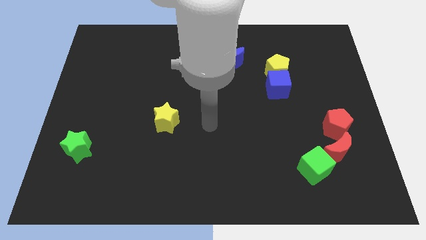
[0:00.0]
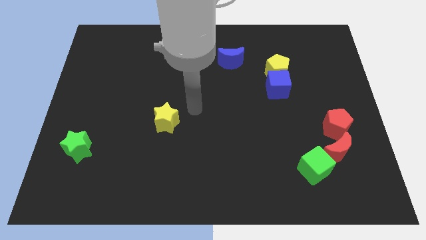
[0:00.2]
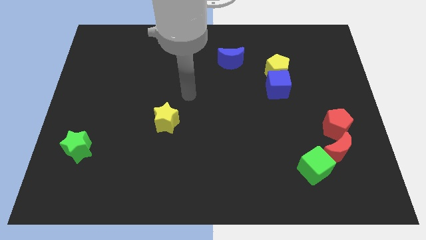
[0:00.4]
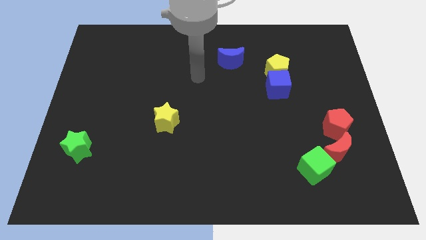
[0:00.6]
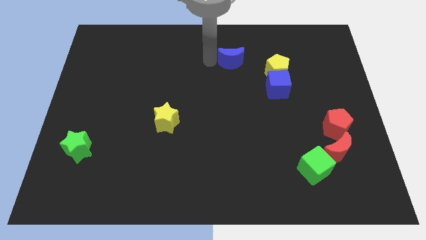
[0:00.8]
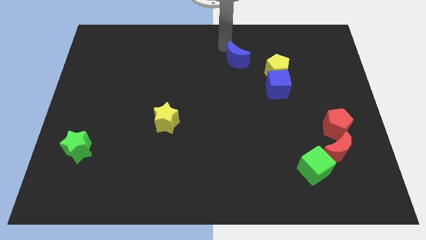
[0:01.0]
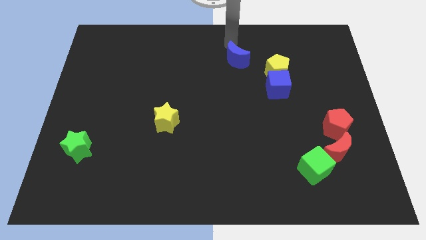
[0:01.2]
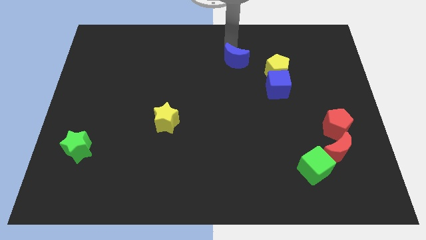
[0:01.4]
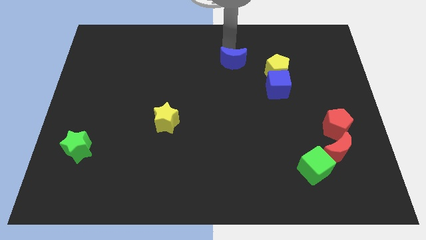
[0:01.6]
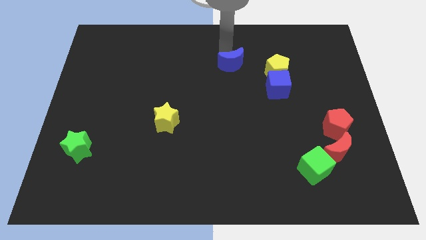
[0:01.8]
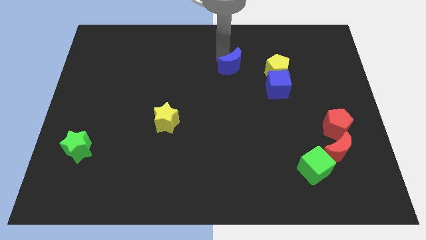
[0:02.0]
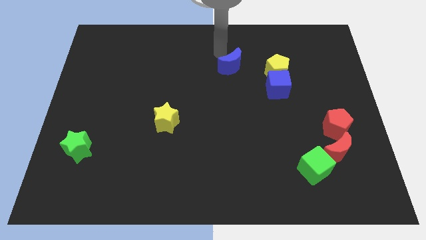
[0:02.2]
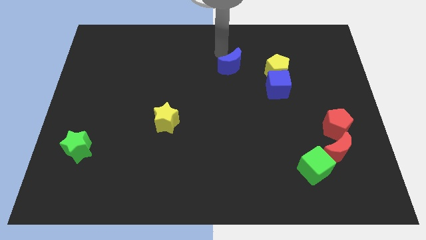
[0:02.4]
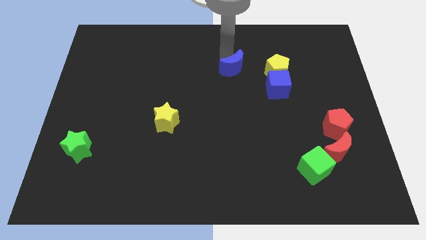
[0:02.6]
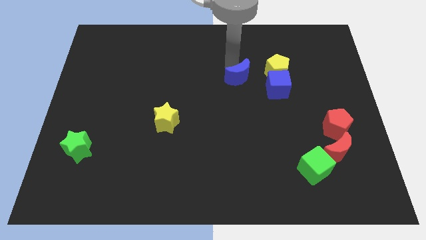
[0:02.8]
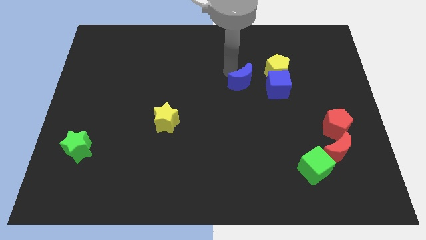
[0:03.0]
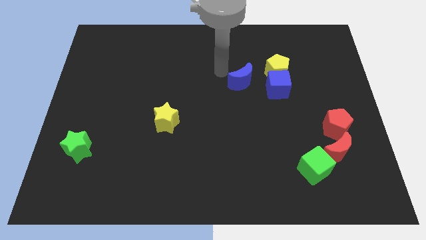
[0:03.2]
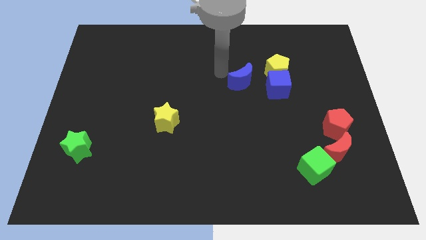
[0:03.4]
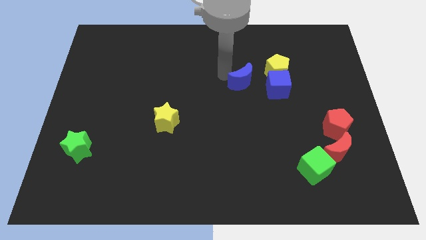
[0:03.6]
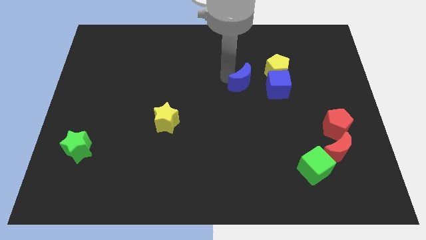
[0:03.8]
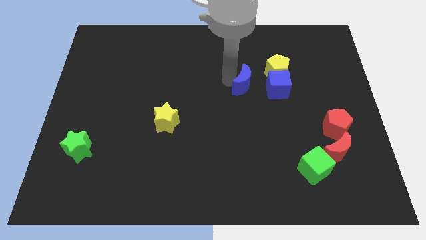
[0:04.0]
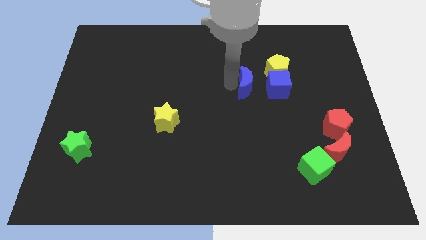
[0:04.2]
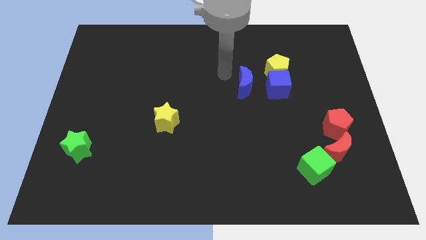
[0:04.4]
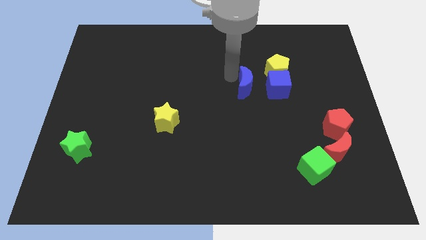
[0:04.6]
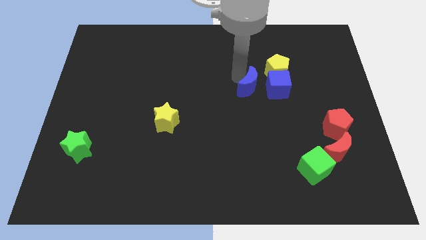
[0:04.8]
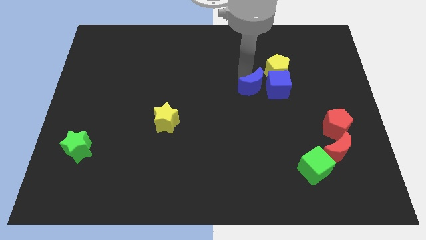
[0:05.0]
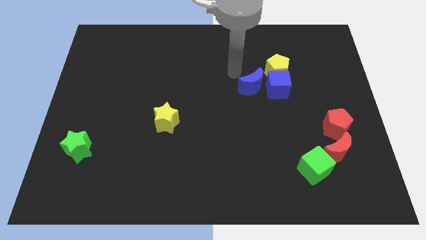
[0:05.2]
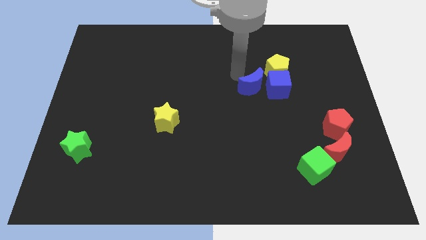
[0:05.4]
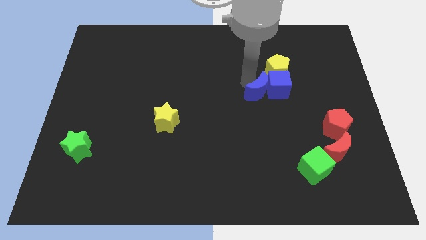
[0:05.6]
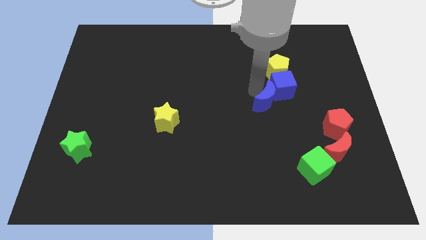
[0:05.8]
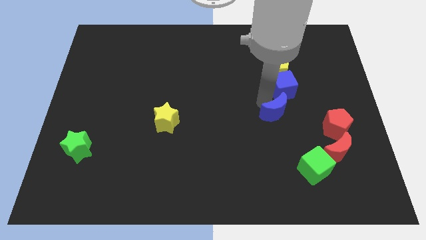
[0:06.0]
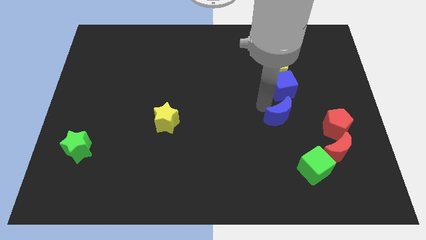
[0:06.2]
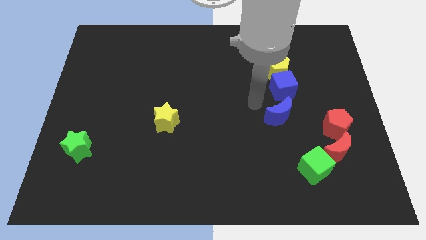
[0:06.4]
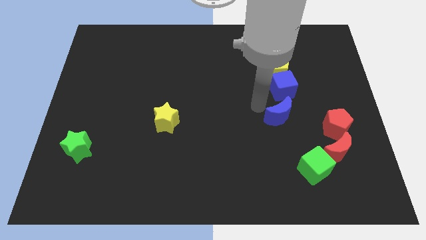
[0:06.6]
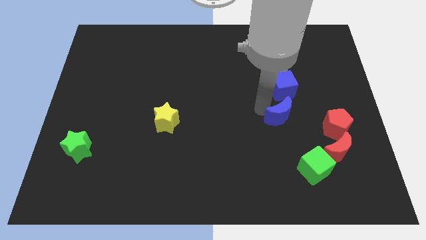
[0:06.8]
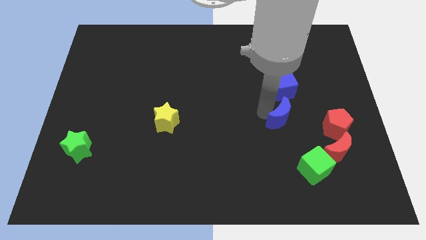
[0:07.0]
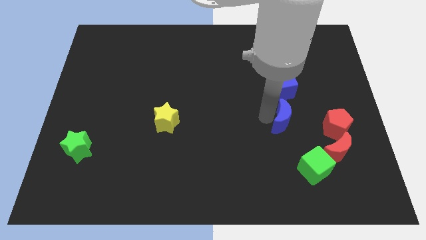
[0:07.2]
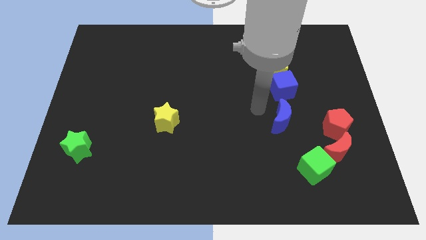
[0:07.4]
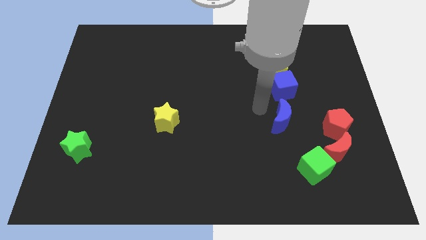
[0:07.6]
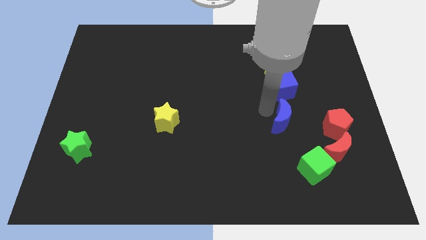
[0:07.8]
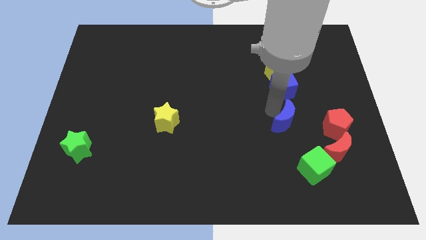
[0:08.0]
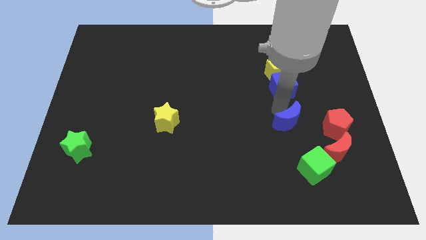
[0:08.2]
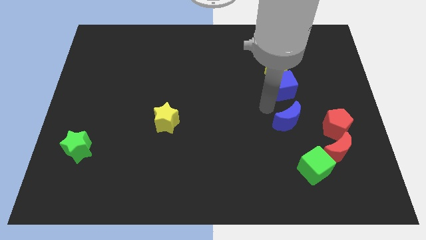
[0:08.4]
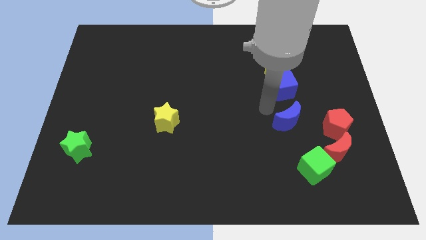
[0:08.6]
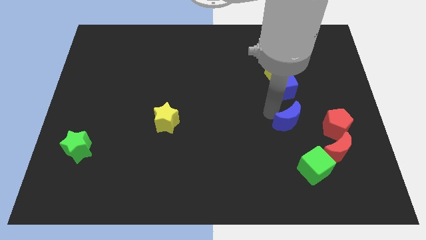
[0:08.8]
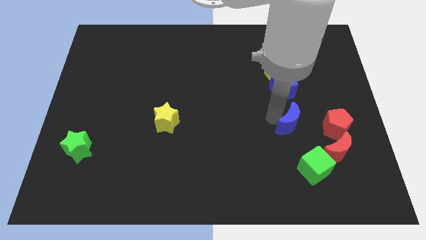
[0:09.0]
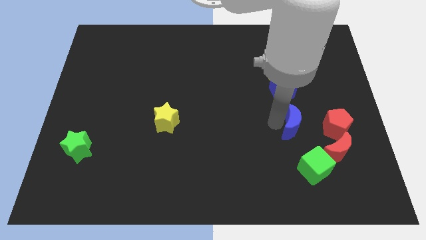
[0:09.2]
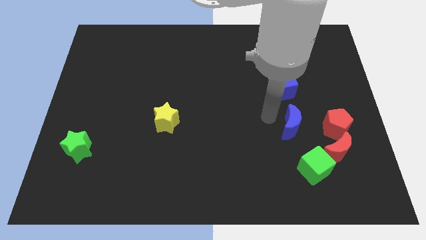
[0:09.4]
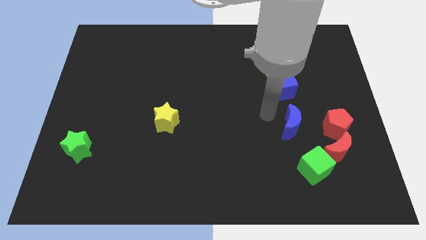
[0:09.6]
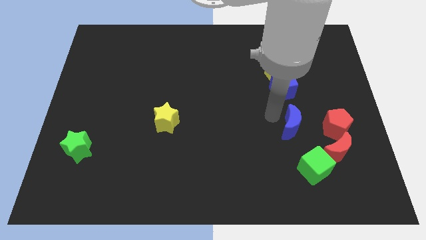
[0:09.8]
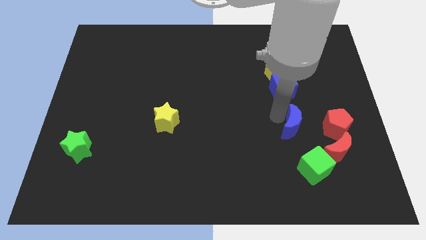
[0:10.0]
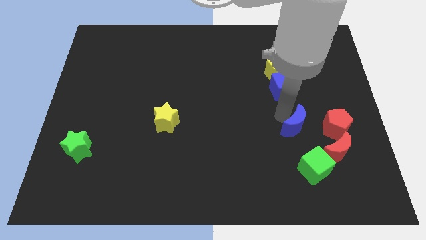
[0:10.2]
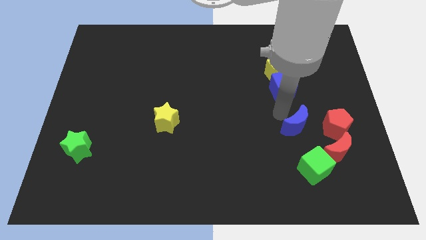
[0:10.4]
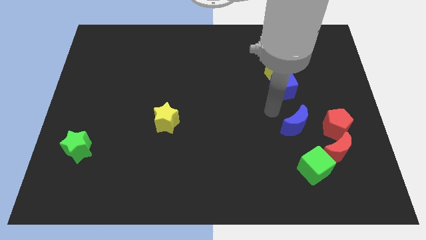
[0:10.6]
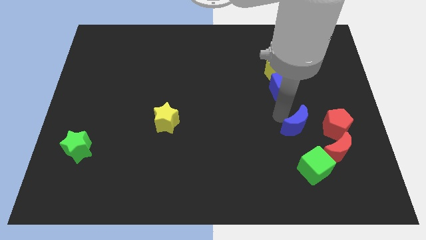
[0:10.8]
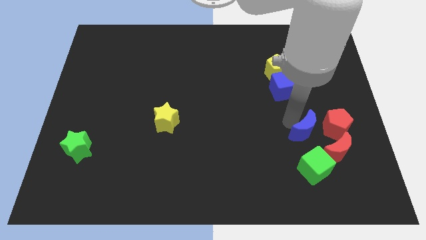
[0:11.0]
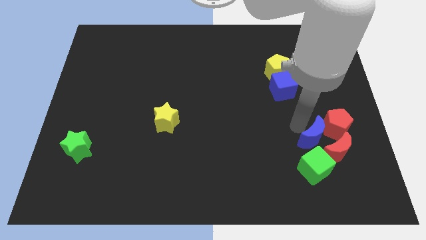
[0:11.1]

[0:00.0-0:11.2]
move the blue moon towards the red moon

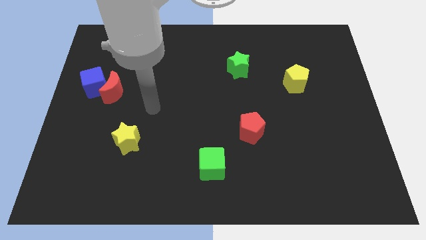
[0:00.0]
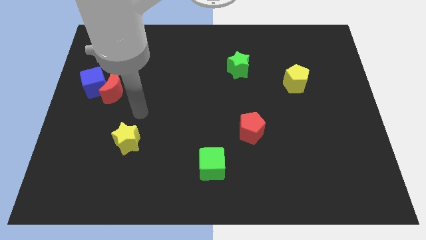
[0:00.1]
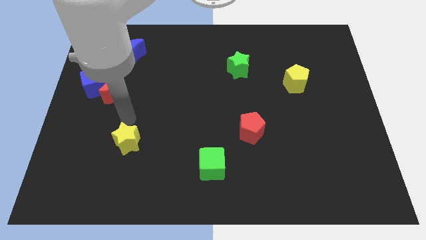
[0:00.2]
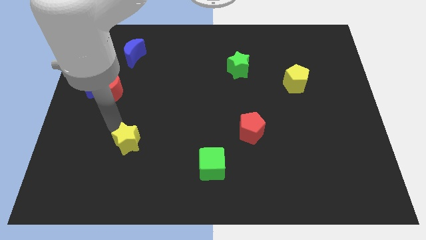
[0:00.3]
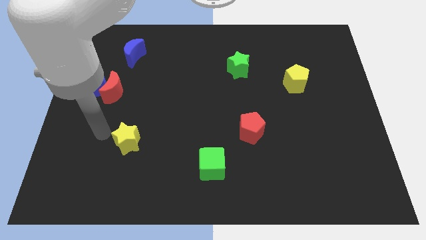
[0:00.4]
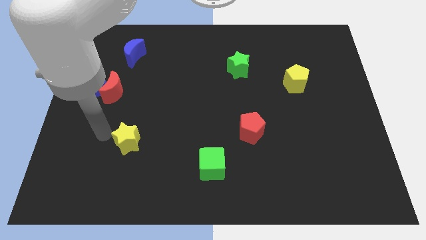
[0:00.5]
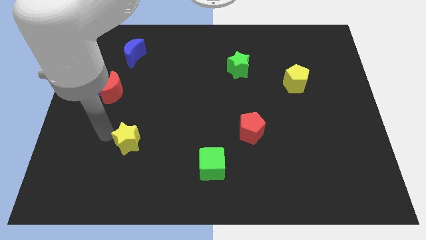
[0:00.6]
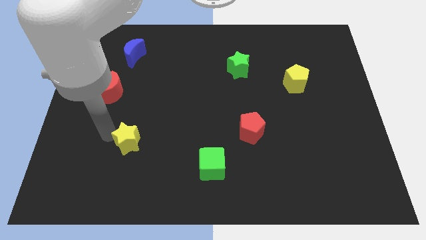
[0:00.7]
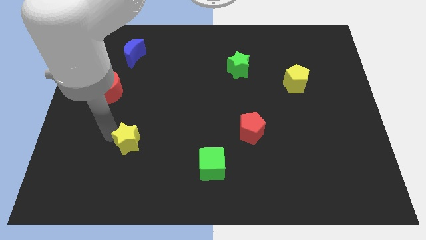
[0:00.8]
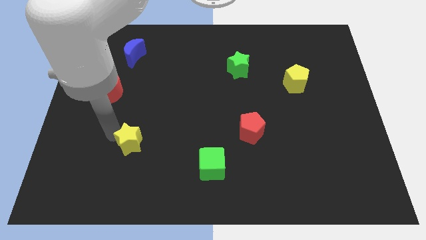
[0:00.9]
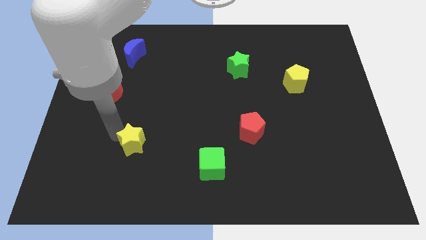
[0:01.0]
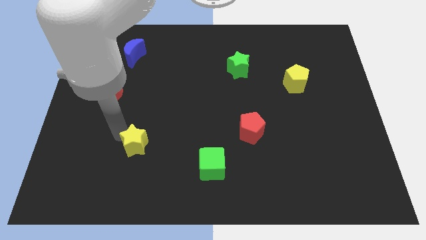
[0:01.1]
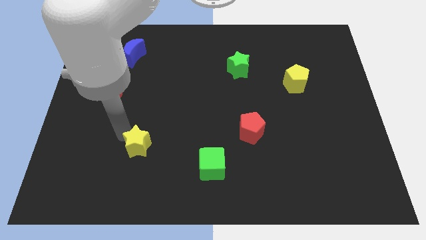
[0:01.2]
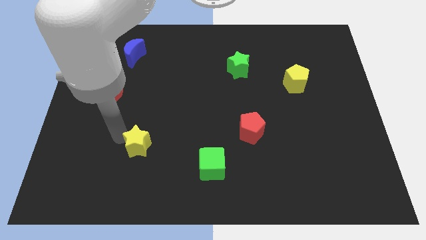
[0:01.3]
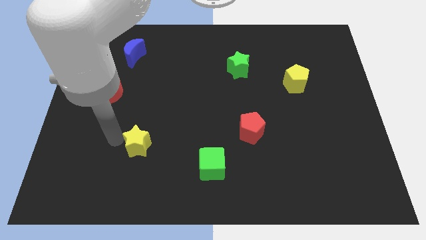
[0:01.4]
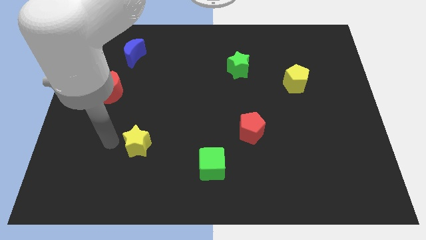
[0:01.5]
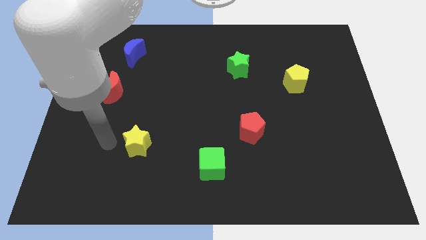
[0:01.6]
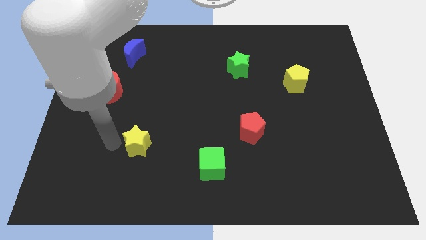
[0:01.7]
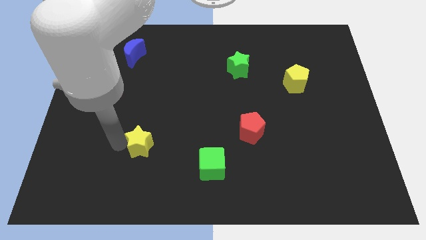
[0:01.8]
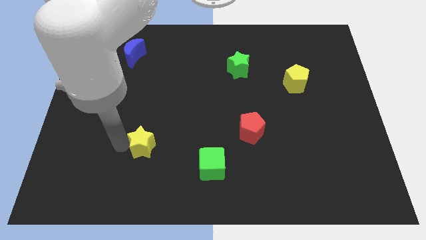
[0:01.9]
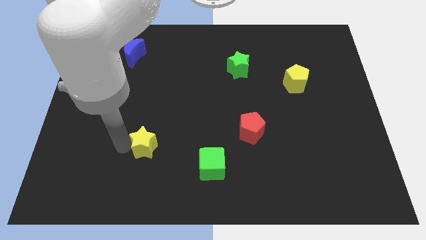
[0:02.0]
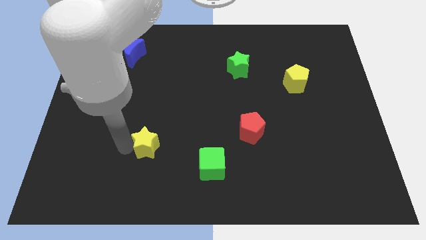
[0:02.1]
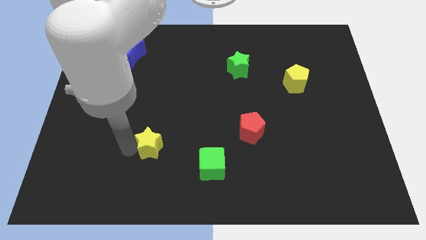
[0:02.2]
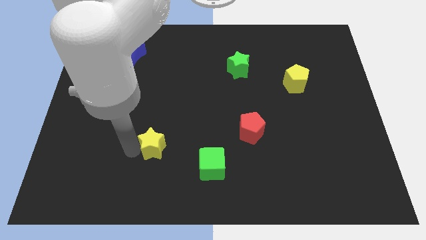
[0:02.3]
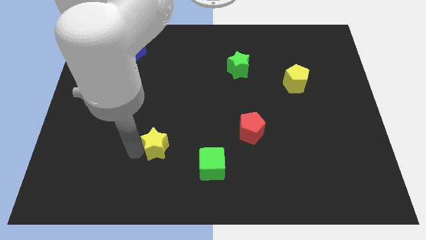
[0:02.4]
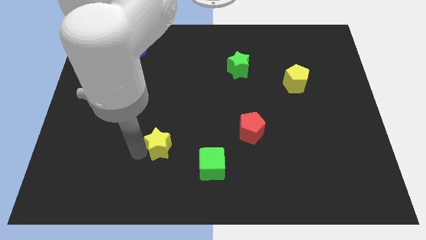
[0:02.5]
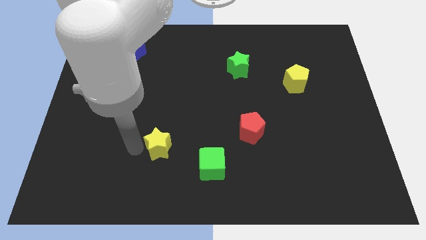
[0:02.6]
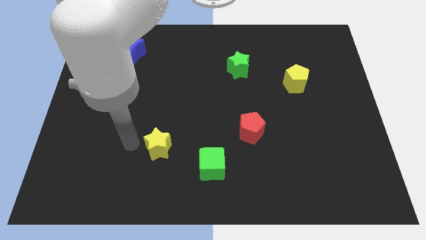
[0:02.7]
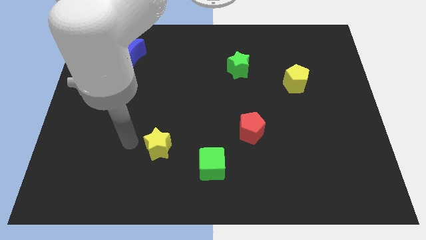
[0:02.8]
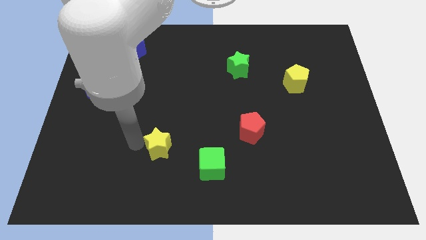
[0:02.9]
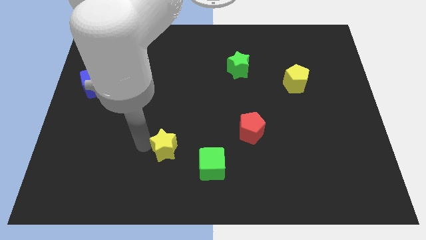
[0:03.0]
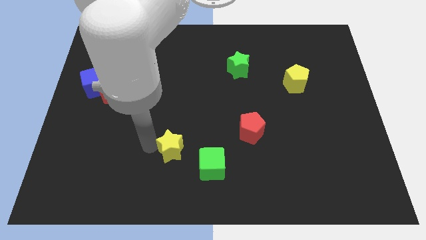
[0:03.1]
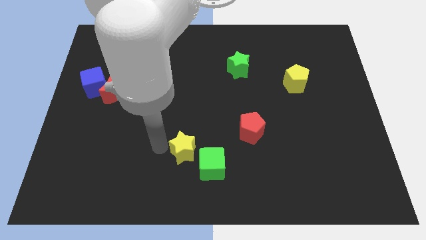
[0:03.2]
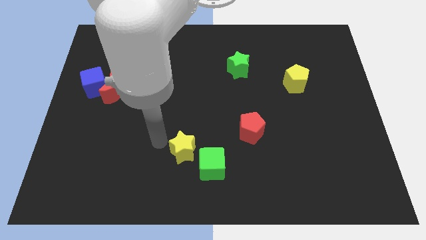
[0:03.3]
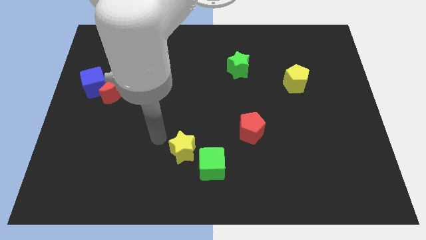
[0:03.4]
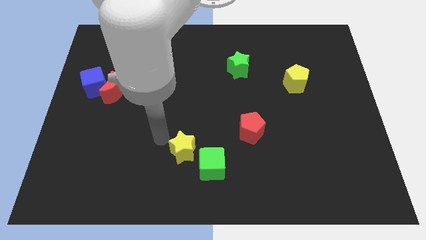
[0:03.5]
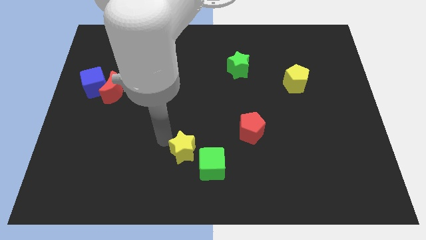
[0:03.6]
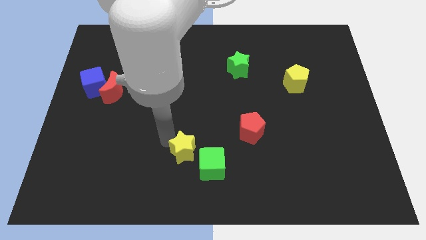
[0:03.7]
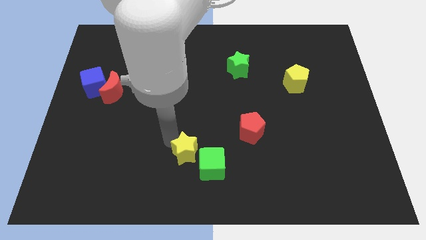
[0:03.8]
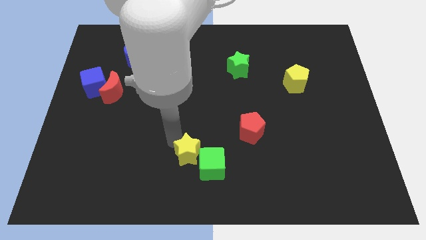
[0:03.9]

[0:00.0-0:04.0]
slide the yellow star close to the green cube
